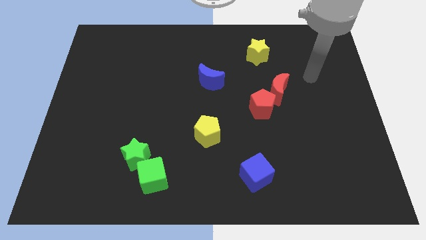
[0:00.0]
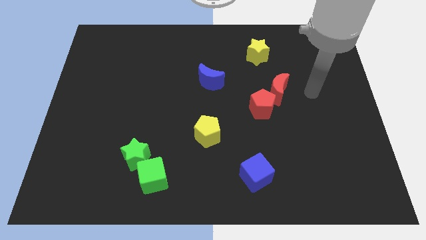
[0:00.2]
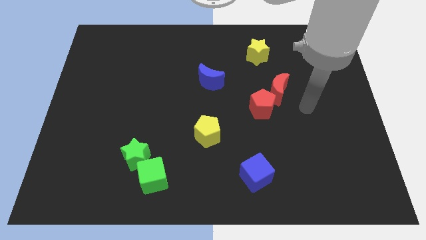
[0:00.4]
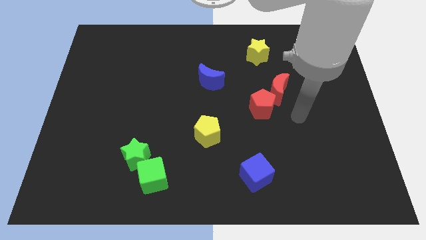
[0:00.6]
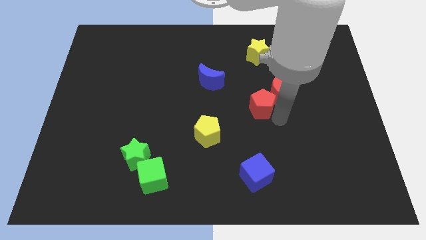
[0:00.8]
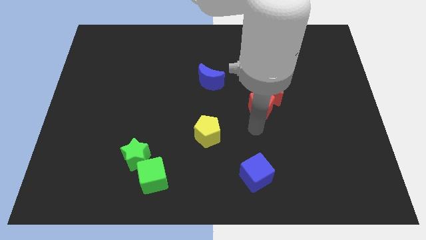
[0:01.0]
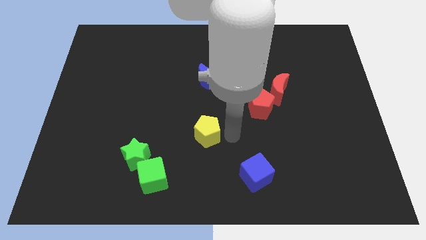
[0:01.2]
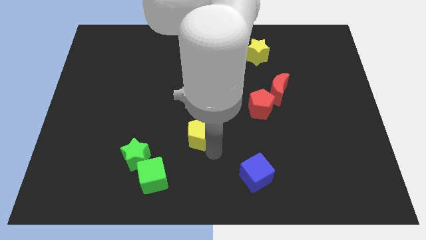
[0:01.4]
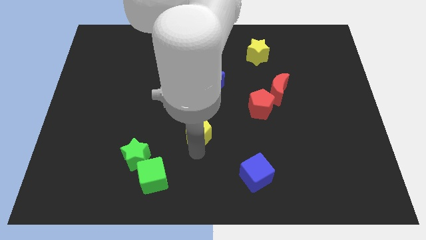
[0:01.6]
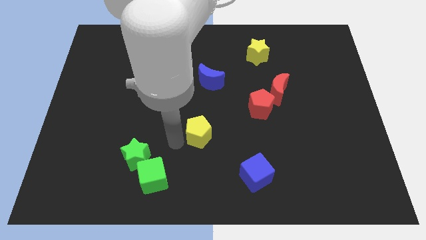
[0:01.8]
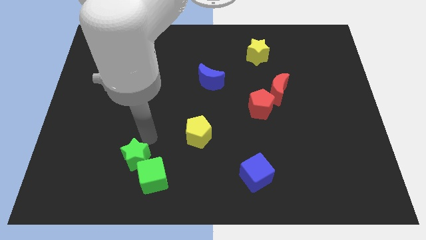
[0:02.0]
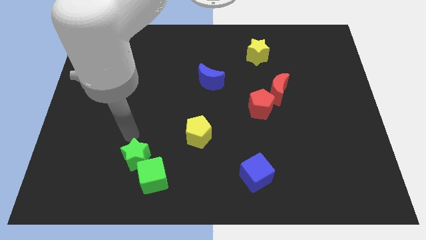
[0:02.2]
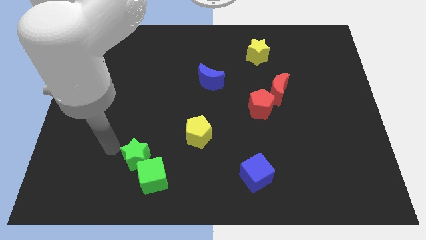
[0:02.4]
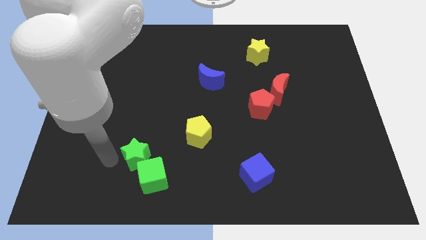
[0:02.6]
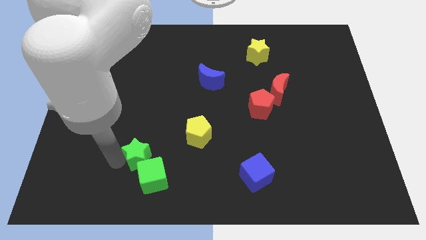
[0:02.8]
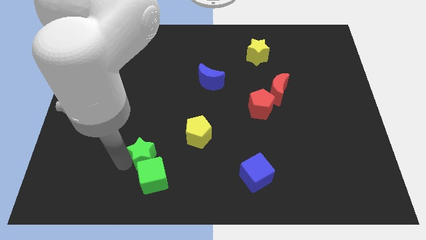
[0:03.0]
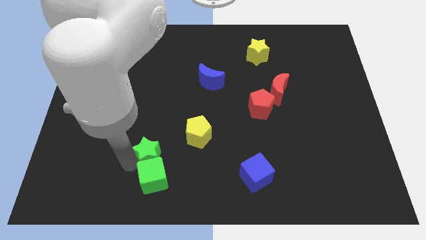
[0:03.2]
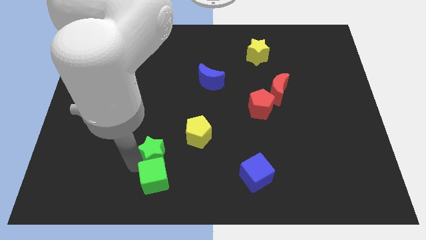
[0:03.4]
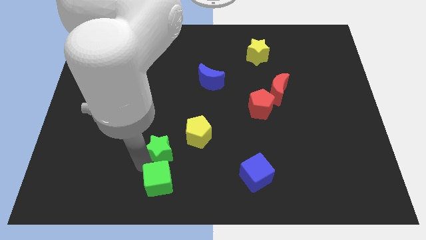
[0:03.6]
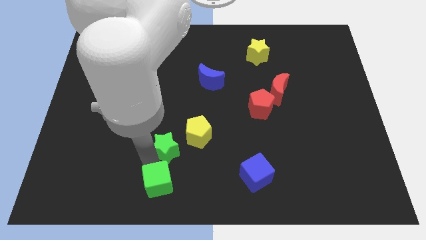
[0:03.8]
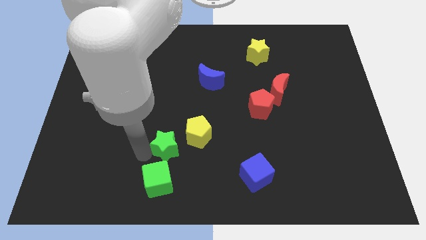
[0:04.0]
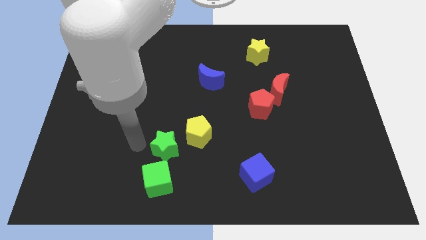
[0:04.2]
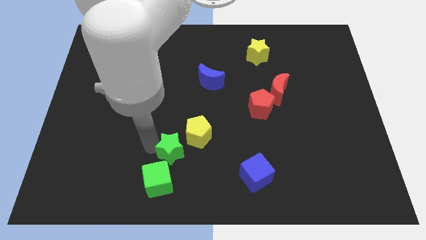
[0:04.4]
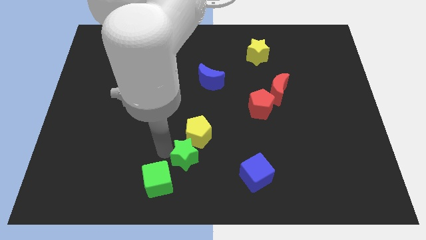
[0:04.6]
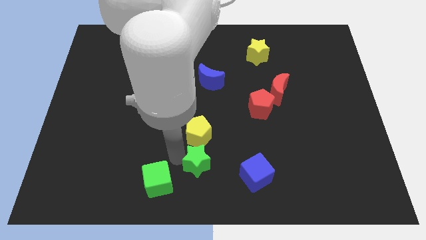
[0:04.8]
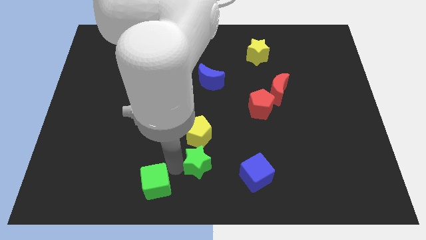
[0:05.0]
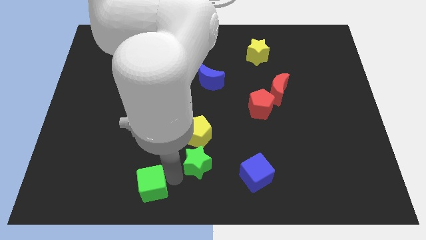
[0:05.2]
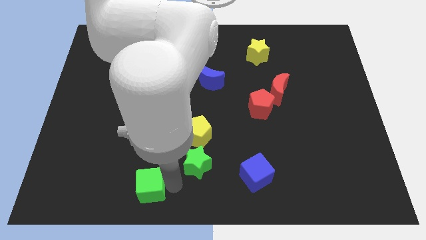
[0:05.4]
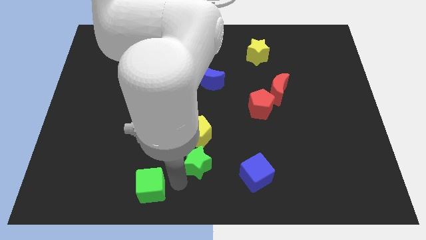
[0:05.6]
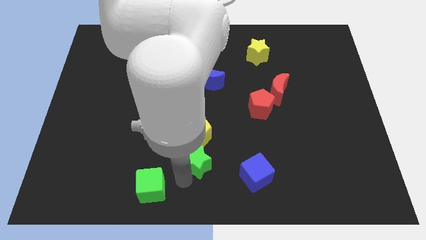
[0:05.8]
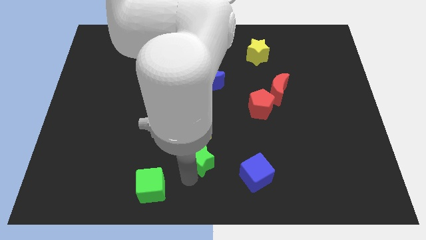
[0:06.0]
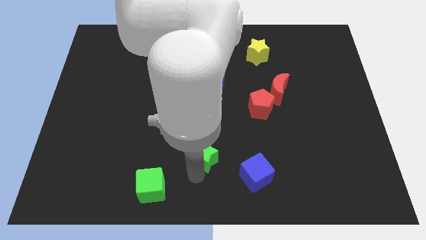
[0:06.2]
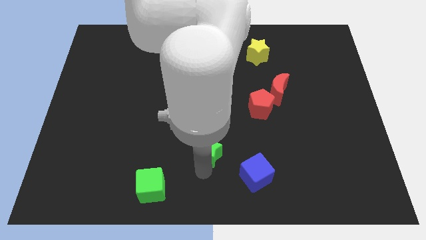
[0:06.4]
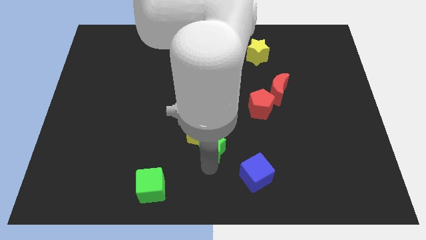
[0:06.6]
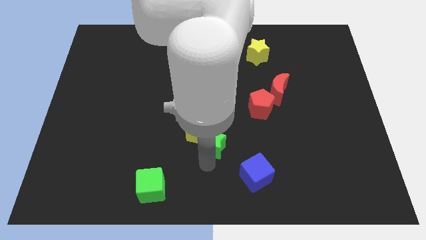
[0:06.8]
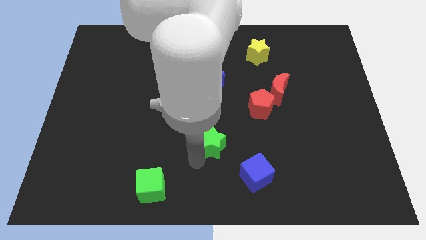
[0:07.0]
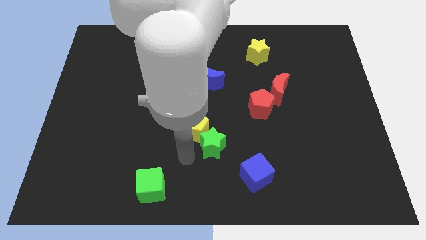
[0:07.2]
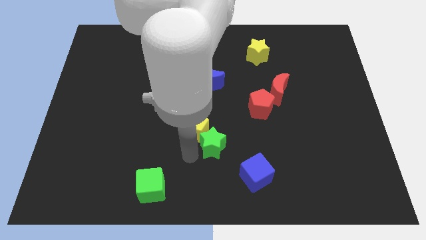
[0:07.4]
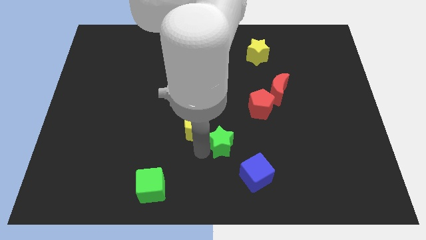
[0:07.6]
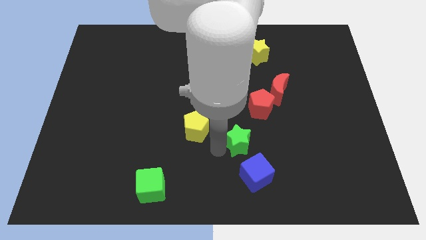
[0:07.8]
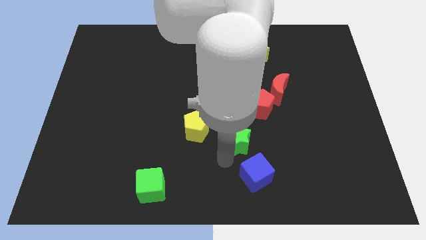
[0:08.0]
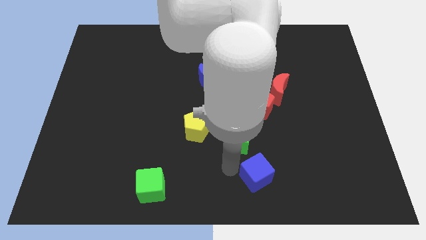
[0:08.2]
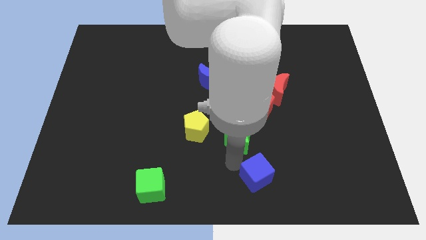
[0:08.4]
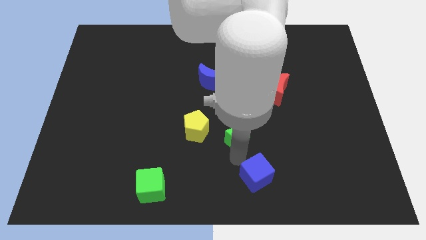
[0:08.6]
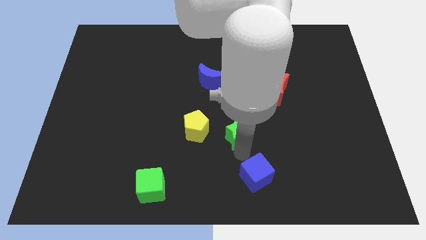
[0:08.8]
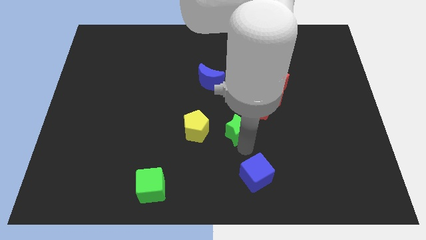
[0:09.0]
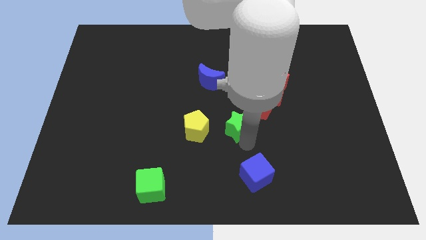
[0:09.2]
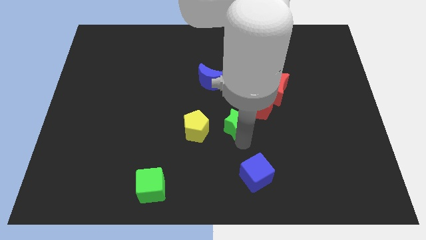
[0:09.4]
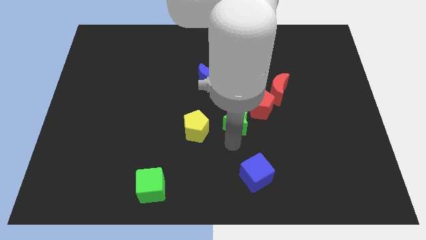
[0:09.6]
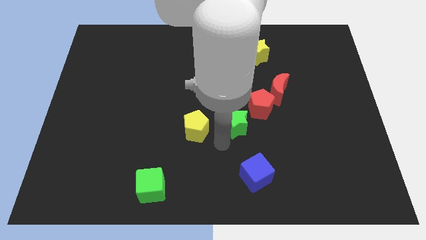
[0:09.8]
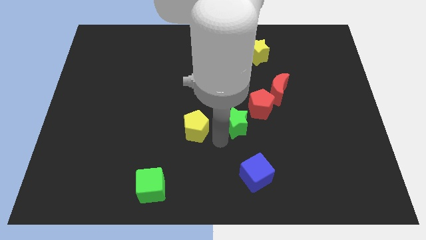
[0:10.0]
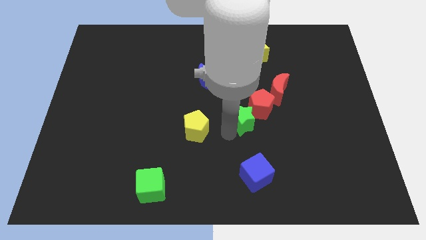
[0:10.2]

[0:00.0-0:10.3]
slide the green star diagonally down and to the left of the red moon

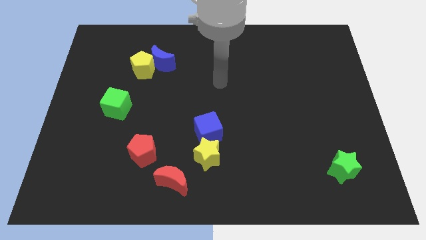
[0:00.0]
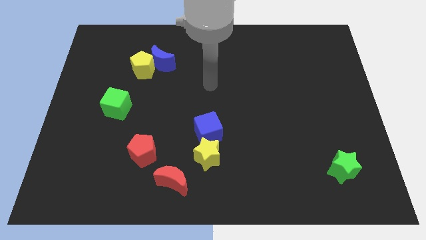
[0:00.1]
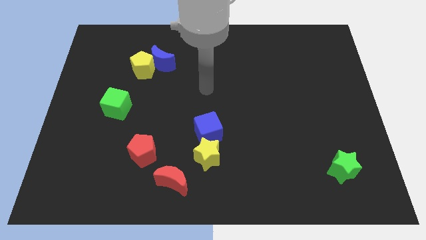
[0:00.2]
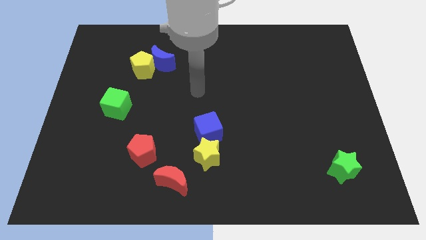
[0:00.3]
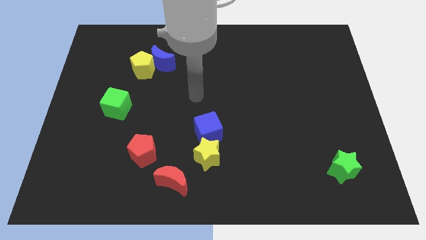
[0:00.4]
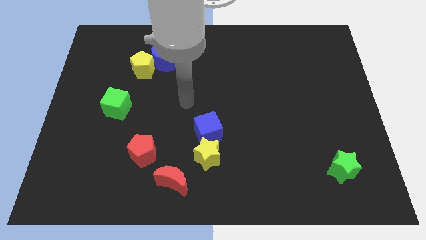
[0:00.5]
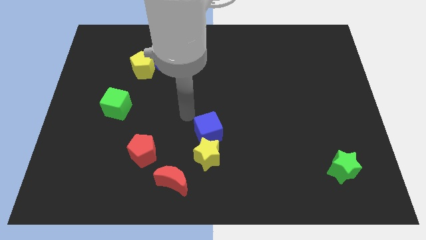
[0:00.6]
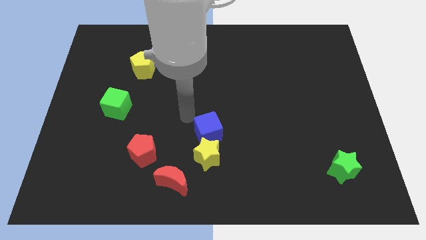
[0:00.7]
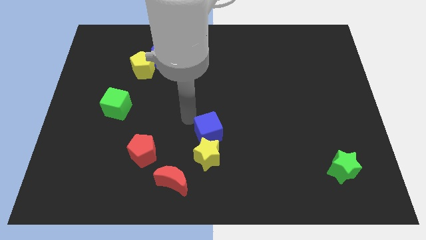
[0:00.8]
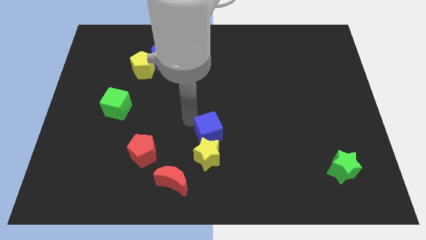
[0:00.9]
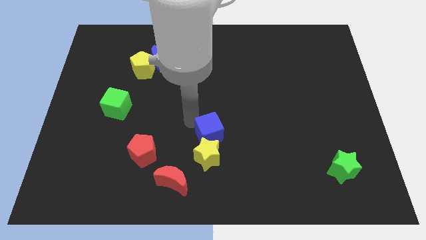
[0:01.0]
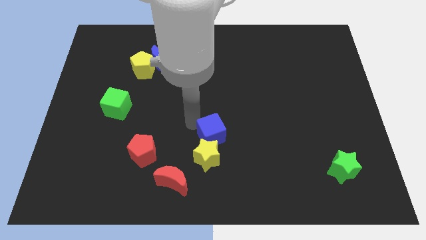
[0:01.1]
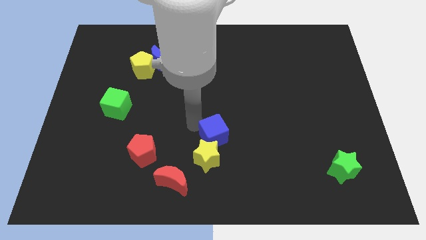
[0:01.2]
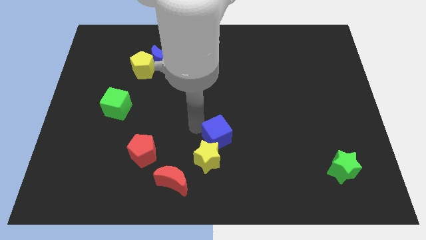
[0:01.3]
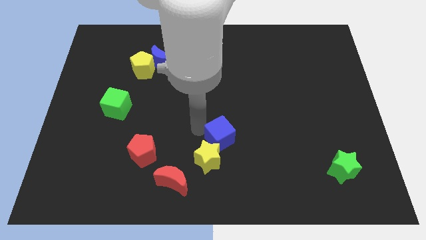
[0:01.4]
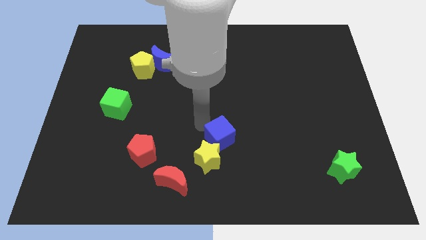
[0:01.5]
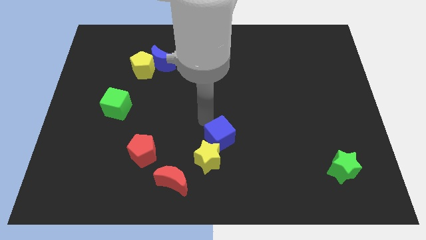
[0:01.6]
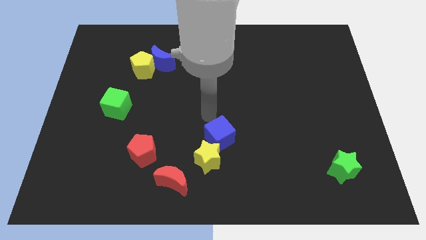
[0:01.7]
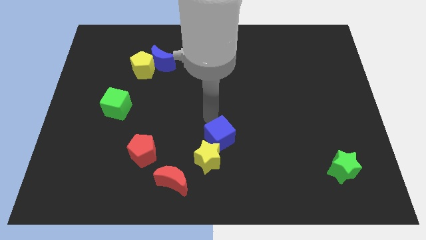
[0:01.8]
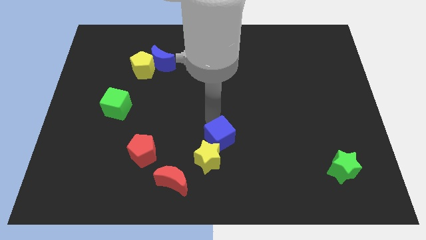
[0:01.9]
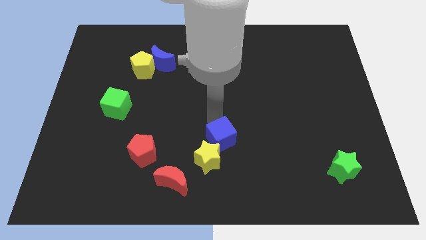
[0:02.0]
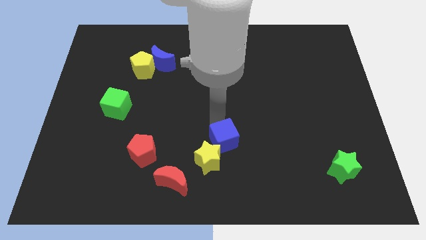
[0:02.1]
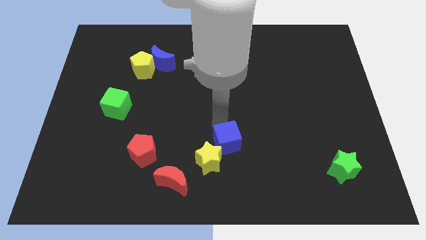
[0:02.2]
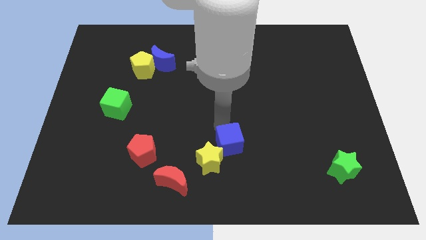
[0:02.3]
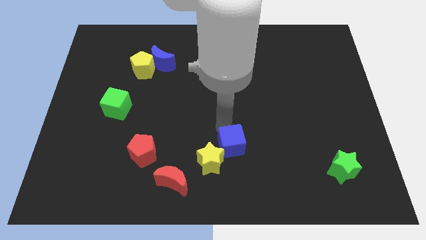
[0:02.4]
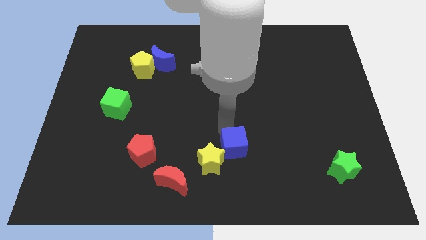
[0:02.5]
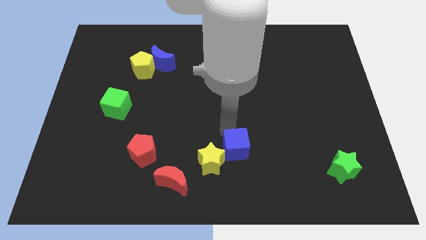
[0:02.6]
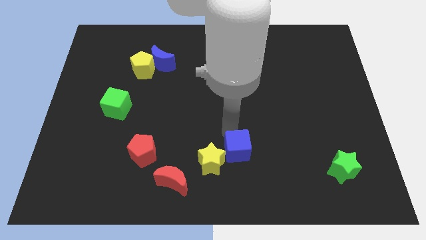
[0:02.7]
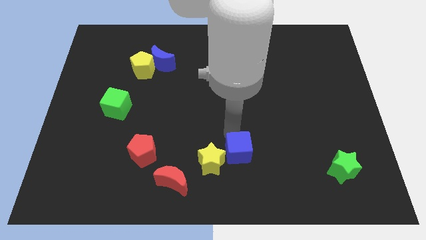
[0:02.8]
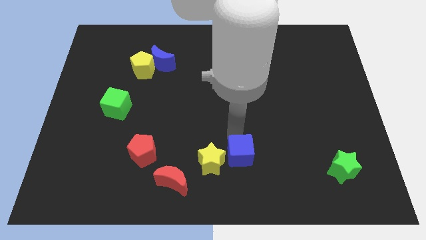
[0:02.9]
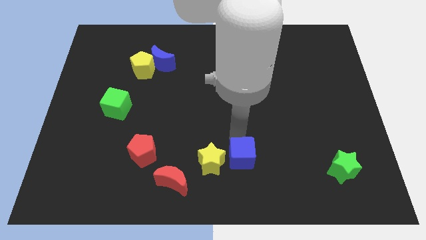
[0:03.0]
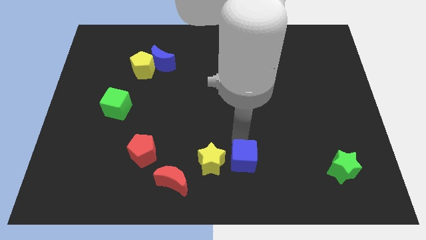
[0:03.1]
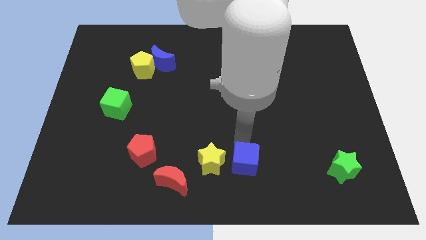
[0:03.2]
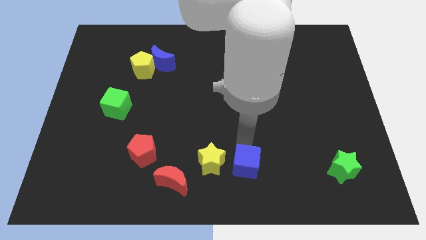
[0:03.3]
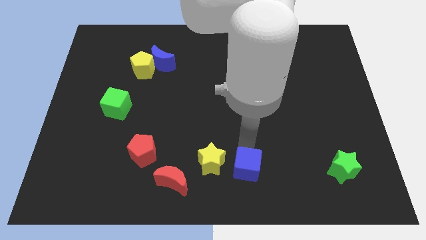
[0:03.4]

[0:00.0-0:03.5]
push the blue cube just right of the red moon
